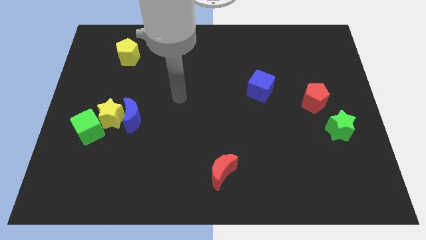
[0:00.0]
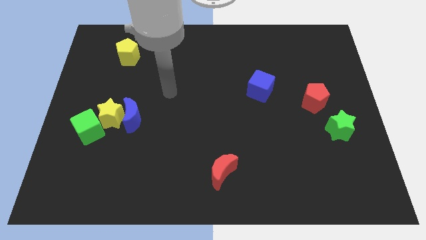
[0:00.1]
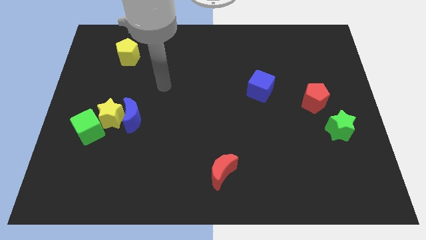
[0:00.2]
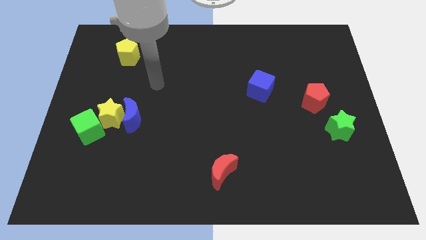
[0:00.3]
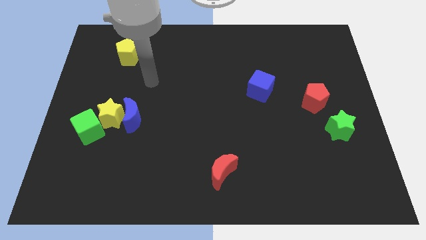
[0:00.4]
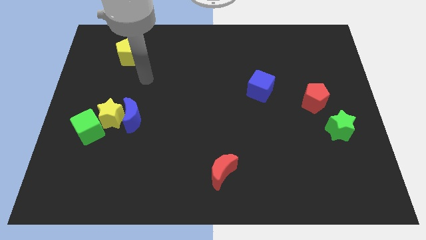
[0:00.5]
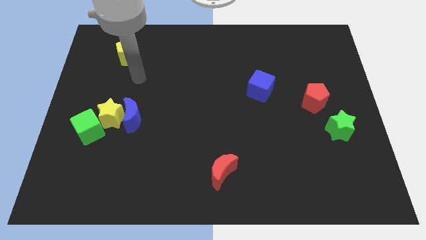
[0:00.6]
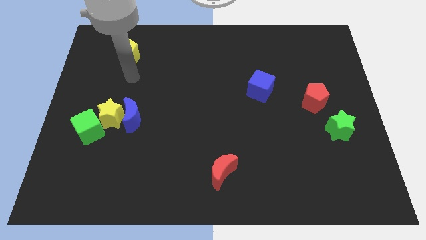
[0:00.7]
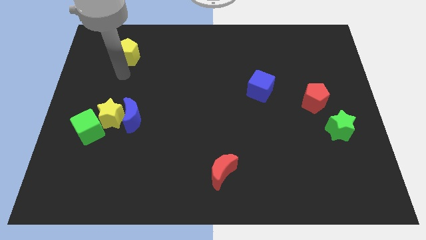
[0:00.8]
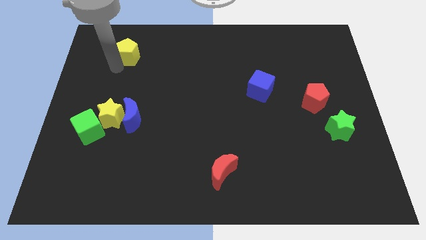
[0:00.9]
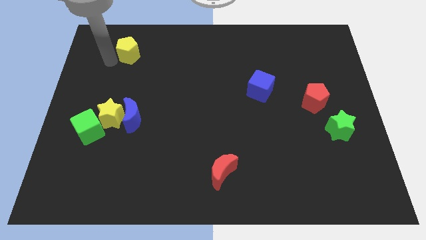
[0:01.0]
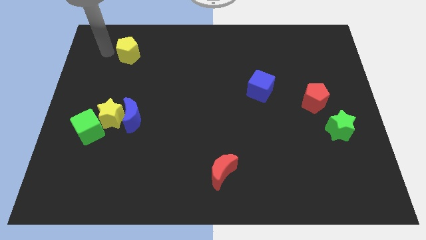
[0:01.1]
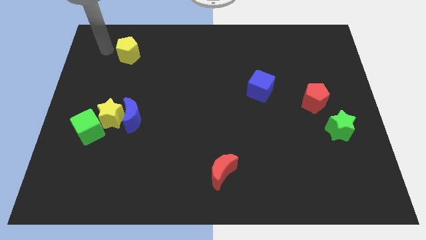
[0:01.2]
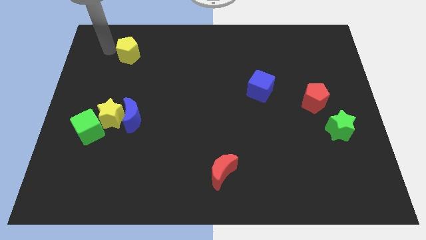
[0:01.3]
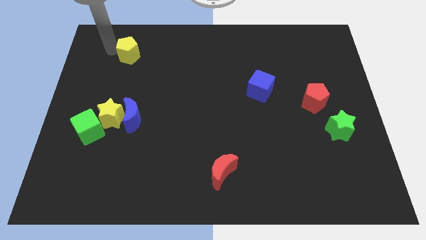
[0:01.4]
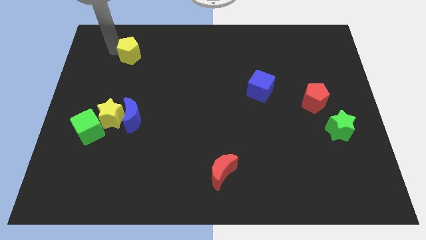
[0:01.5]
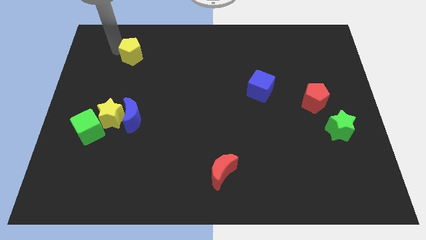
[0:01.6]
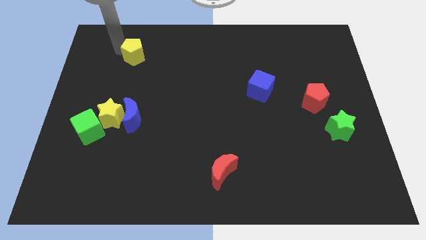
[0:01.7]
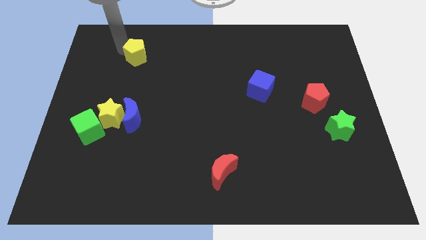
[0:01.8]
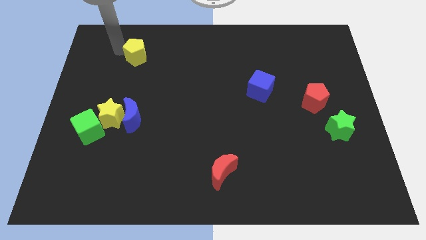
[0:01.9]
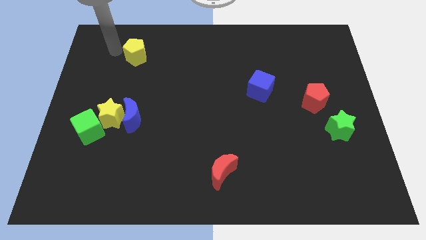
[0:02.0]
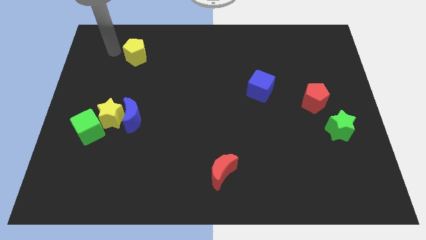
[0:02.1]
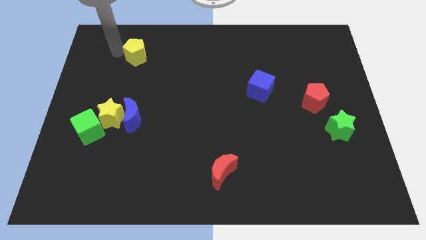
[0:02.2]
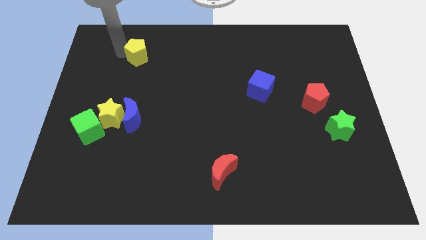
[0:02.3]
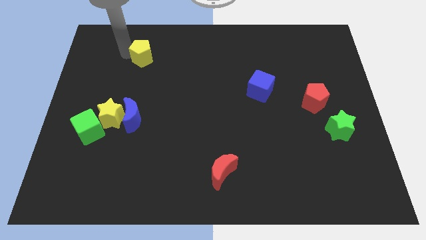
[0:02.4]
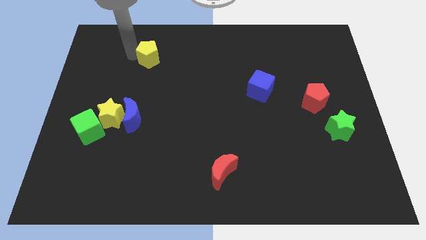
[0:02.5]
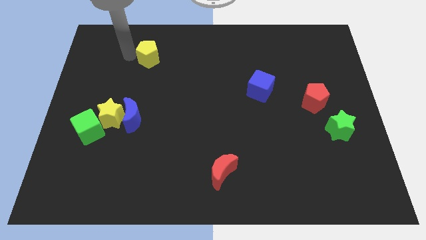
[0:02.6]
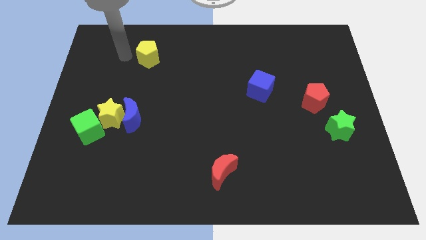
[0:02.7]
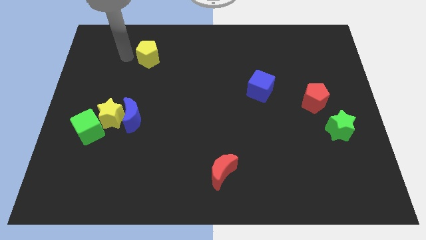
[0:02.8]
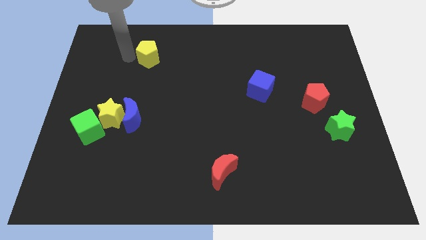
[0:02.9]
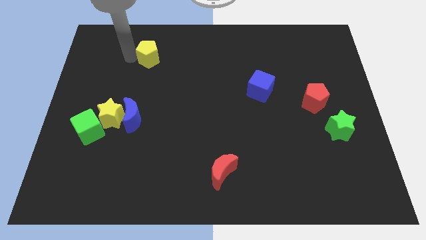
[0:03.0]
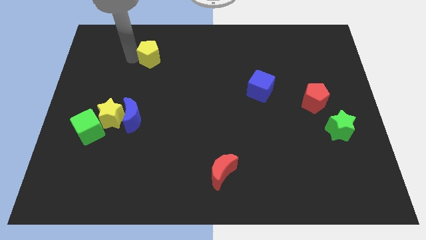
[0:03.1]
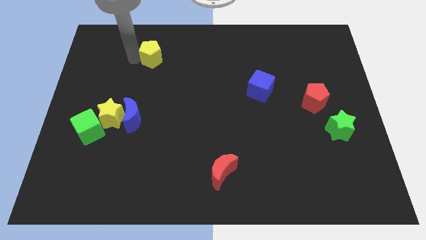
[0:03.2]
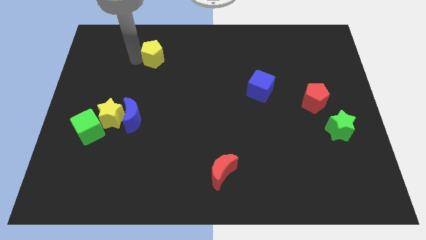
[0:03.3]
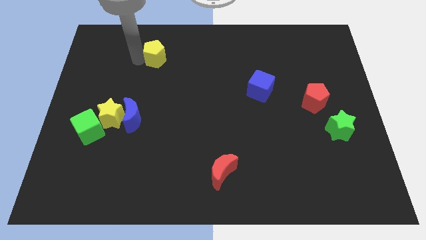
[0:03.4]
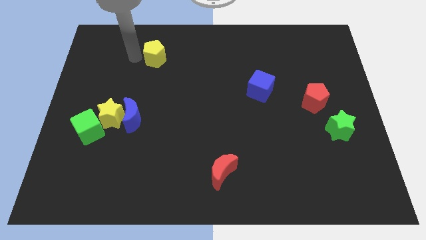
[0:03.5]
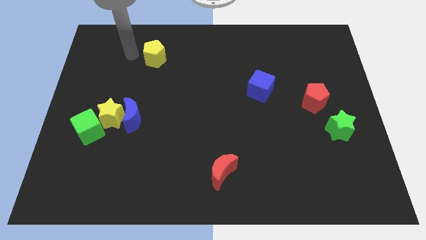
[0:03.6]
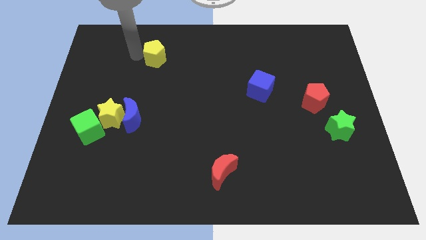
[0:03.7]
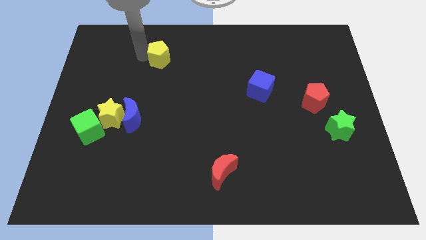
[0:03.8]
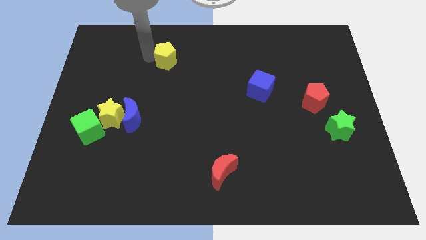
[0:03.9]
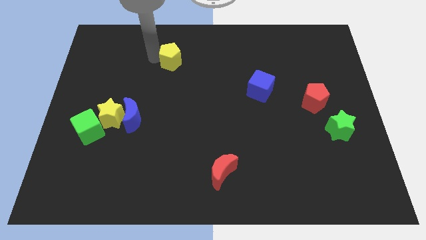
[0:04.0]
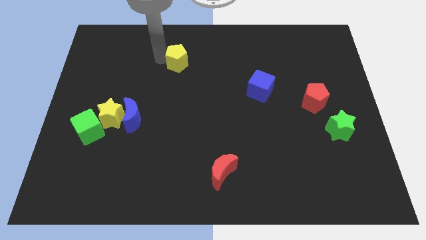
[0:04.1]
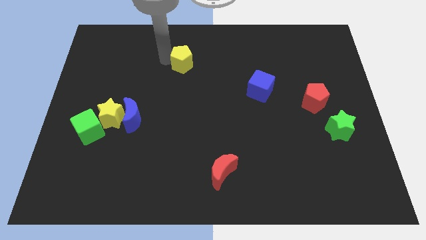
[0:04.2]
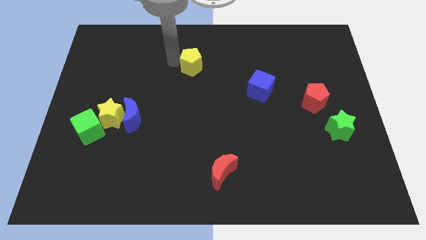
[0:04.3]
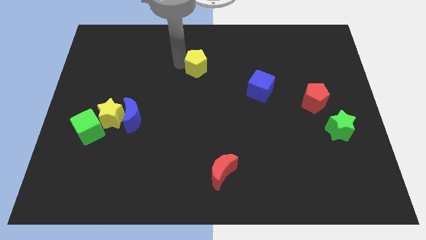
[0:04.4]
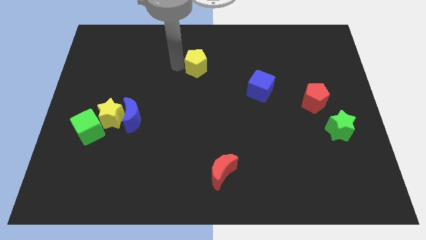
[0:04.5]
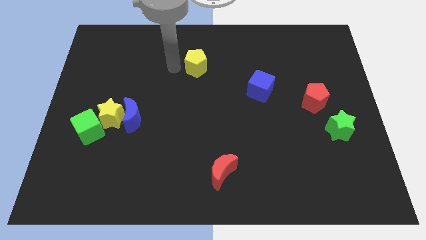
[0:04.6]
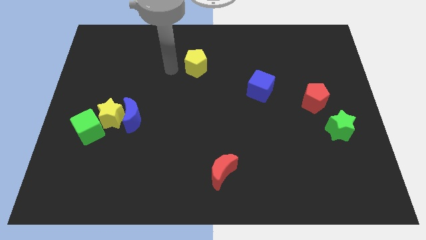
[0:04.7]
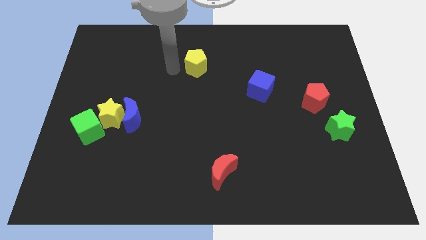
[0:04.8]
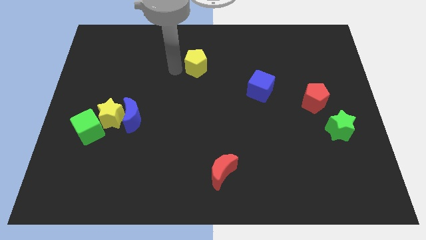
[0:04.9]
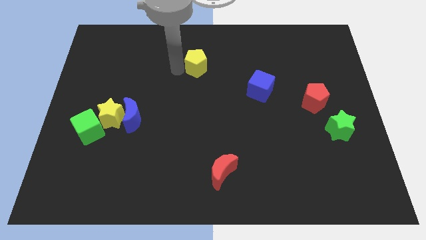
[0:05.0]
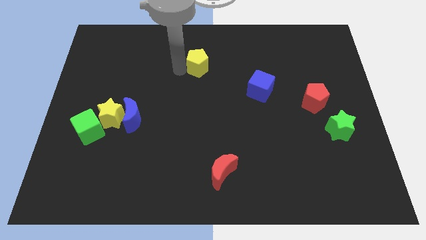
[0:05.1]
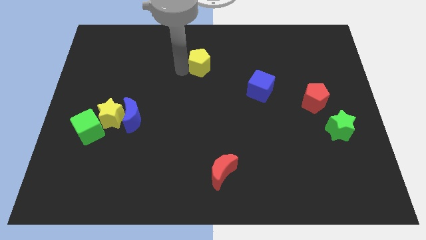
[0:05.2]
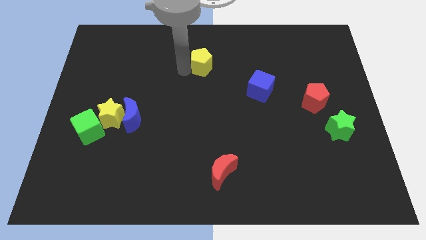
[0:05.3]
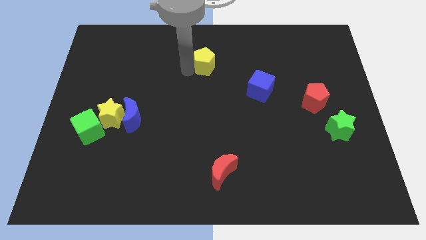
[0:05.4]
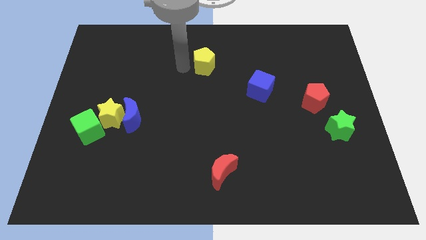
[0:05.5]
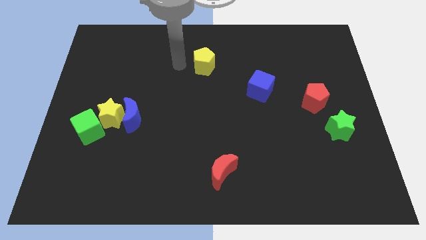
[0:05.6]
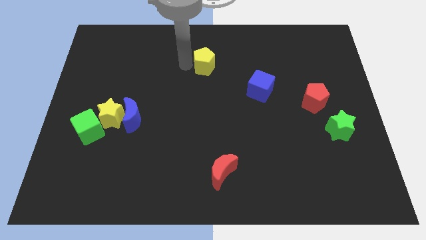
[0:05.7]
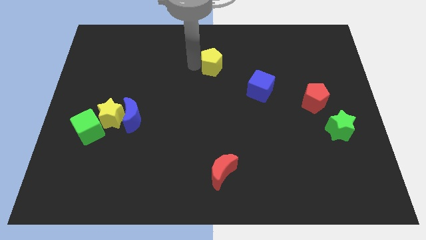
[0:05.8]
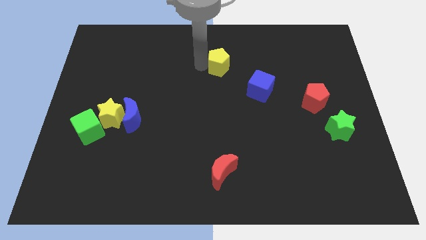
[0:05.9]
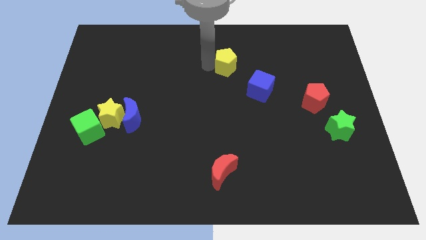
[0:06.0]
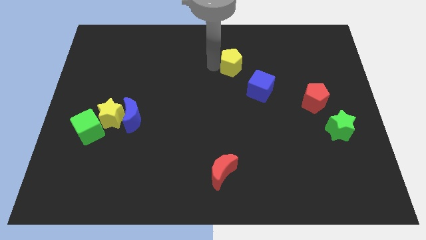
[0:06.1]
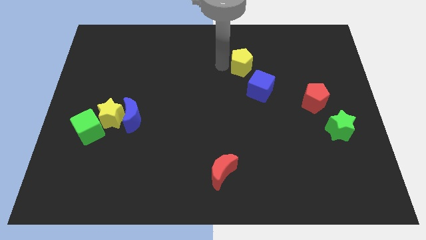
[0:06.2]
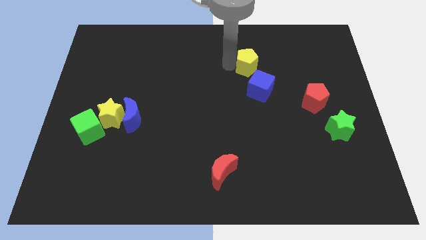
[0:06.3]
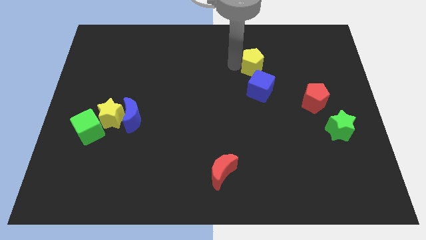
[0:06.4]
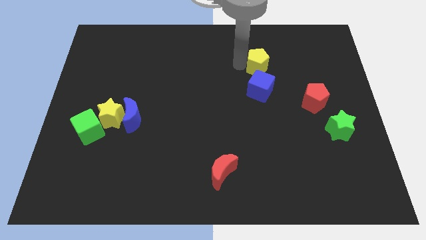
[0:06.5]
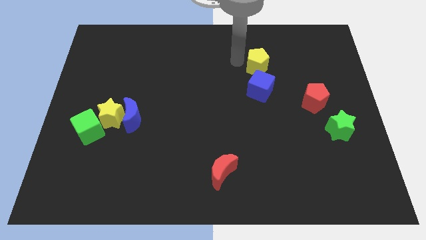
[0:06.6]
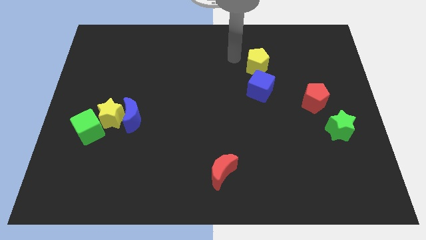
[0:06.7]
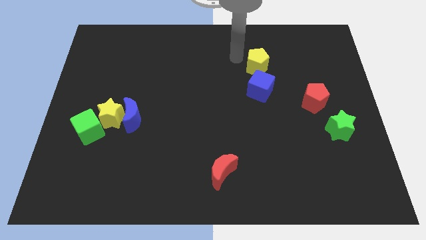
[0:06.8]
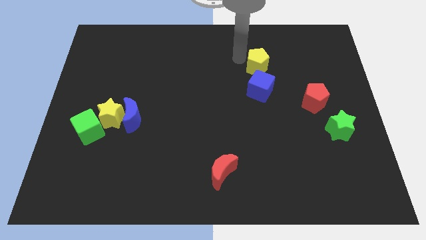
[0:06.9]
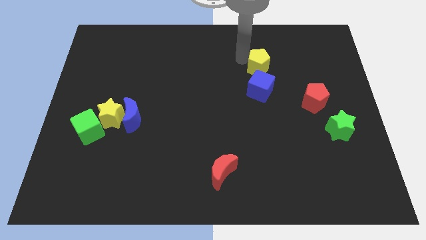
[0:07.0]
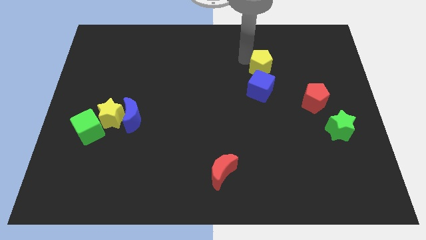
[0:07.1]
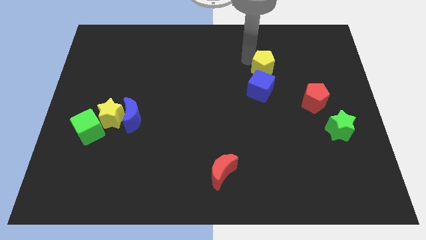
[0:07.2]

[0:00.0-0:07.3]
push the yellow pentagon to the top right side of the blue cube

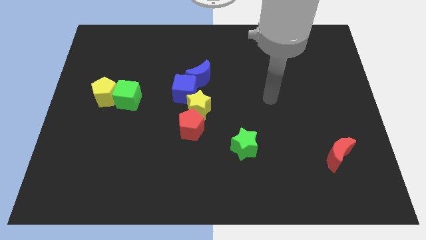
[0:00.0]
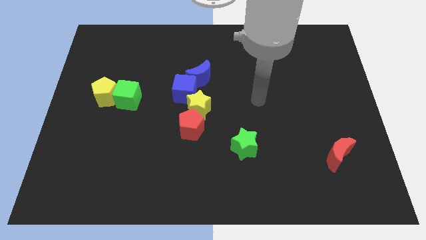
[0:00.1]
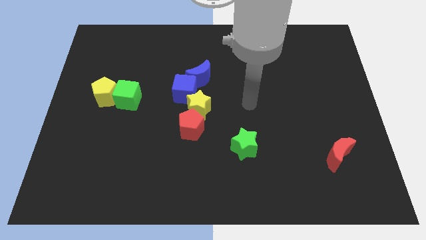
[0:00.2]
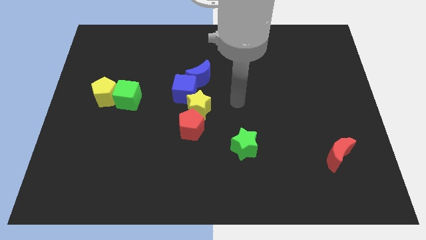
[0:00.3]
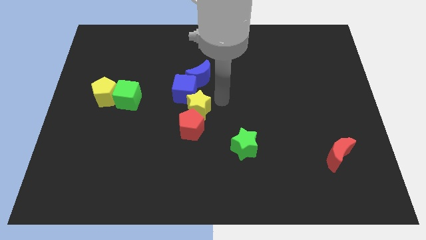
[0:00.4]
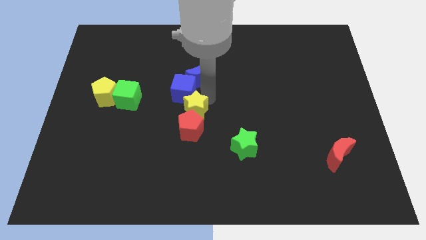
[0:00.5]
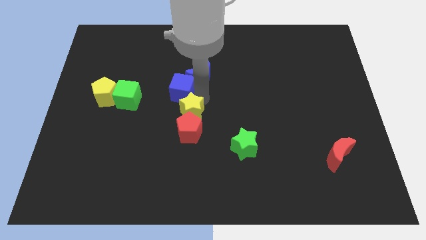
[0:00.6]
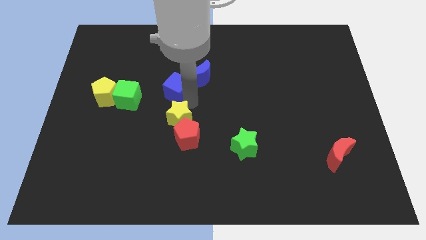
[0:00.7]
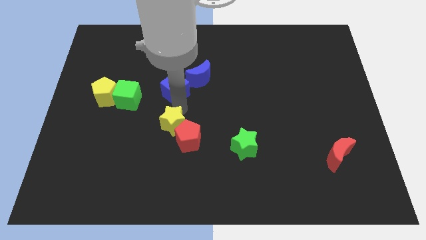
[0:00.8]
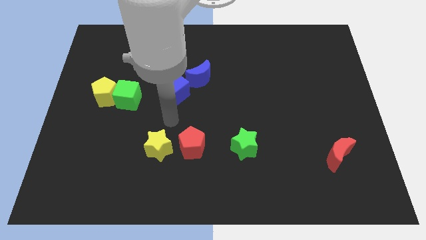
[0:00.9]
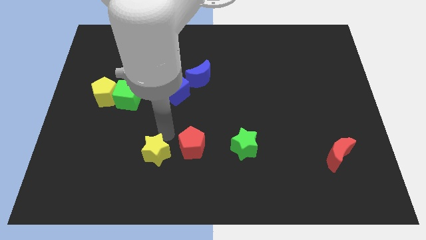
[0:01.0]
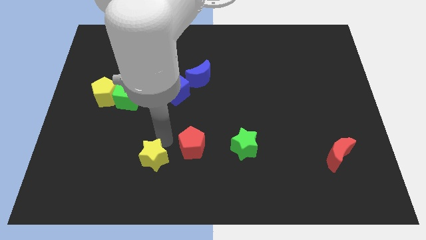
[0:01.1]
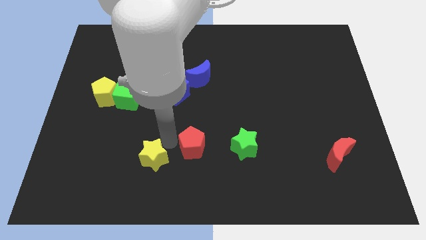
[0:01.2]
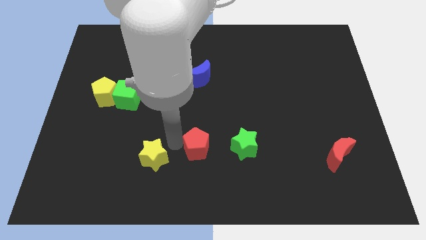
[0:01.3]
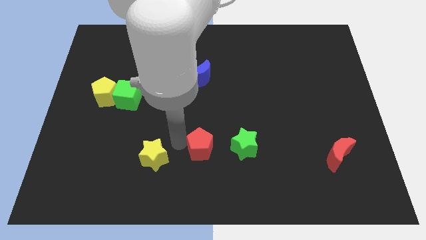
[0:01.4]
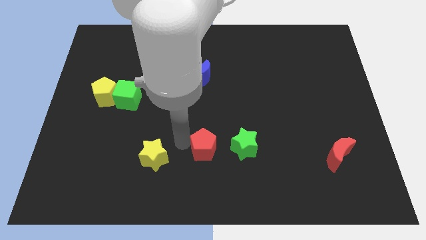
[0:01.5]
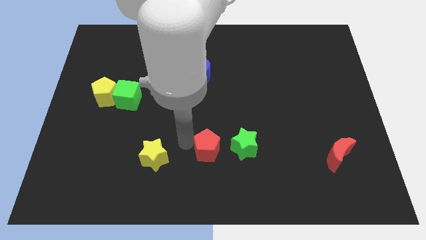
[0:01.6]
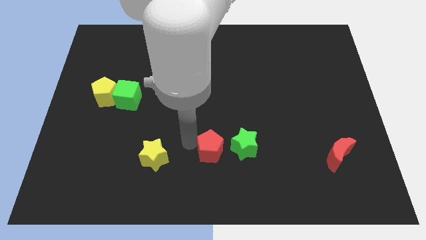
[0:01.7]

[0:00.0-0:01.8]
push the red pentagon to the bottom left of the green star
